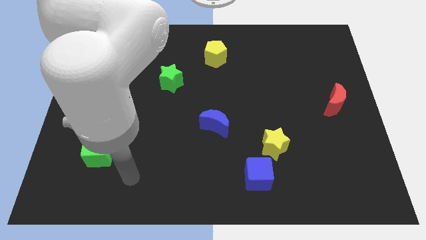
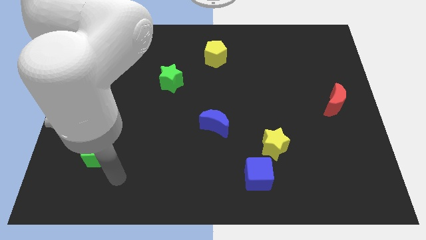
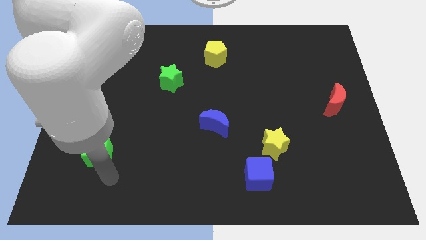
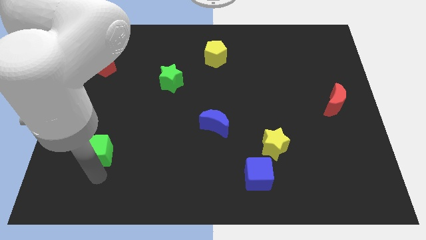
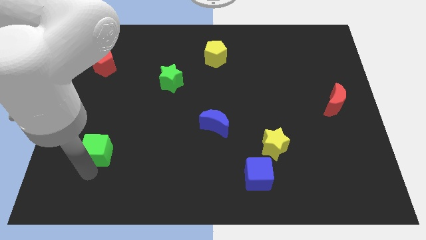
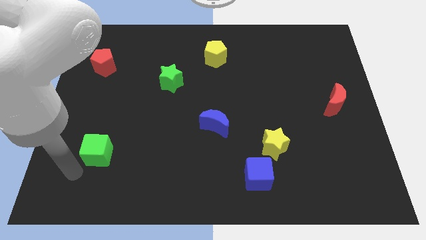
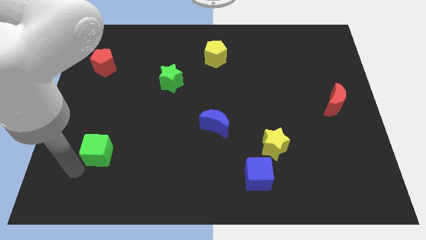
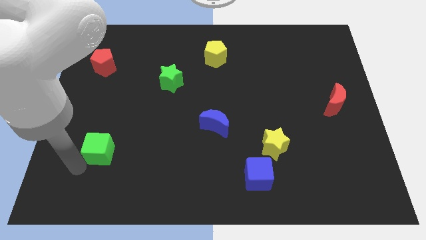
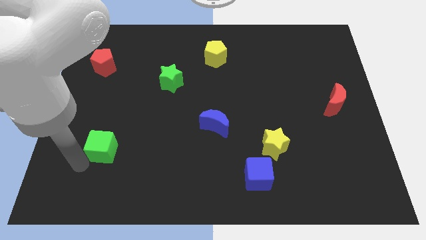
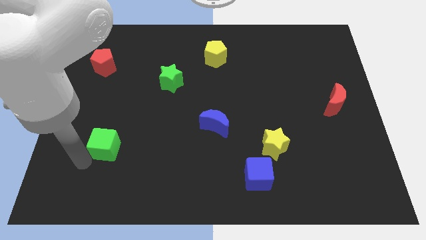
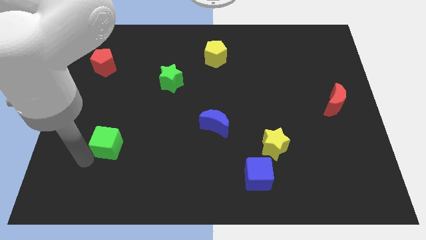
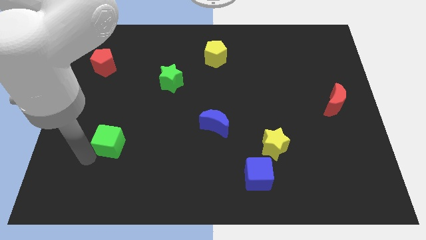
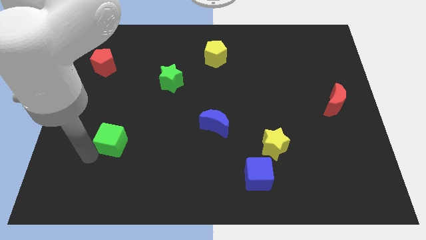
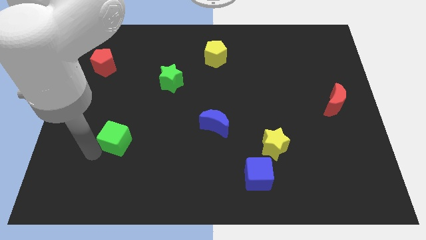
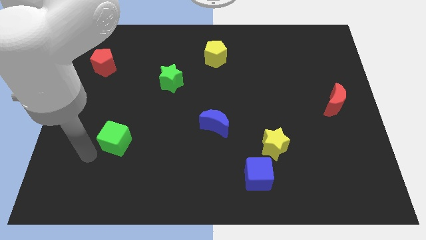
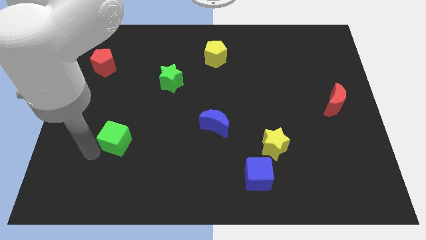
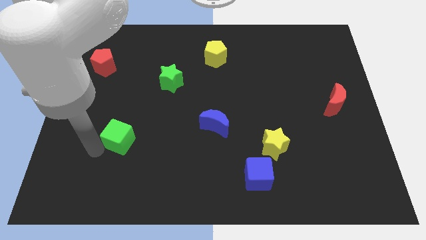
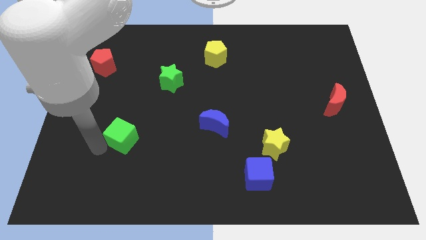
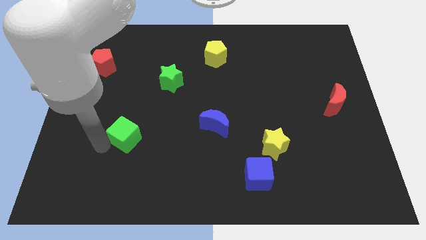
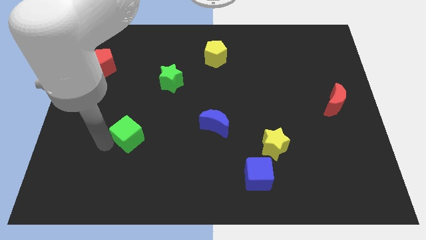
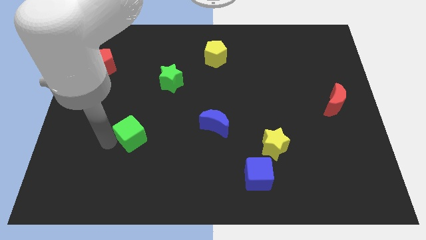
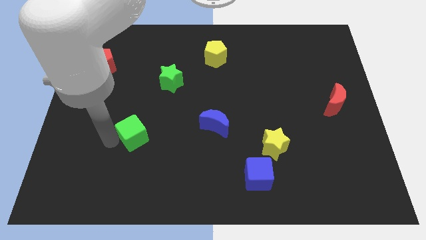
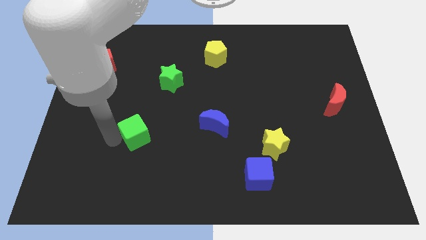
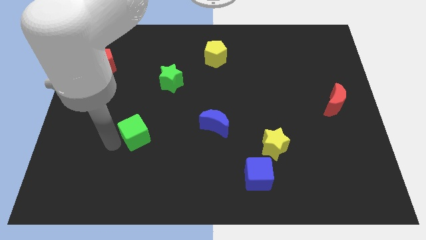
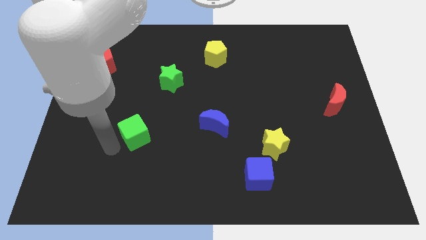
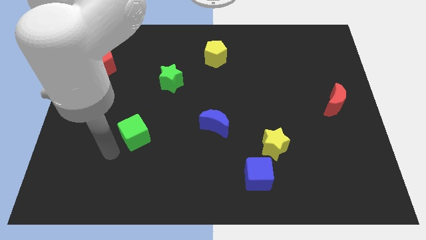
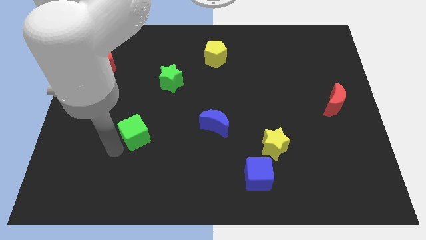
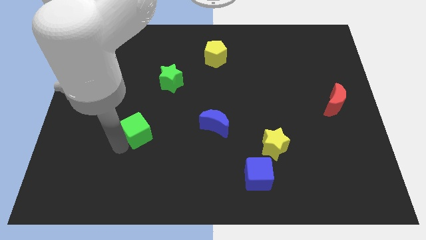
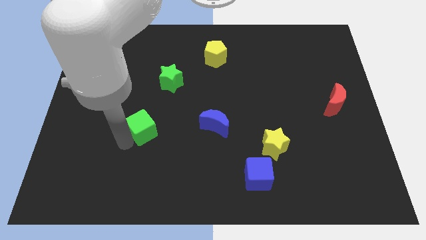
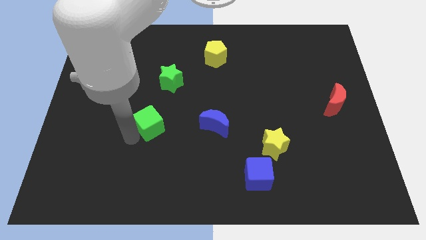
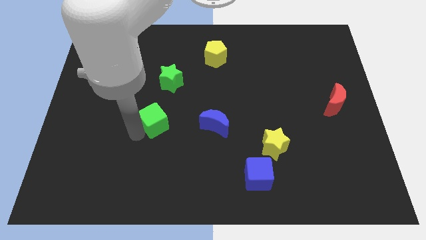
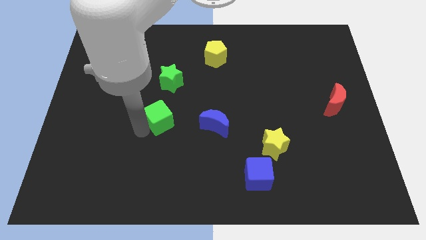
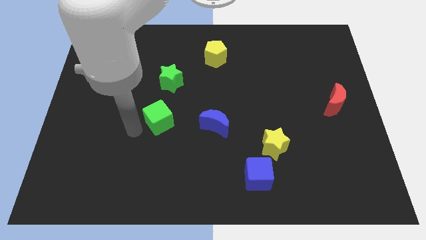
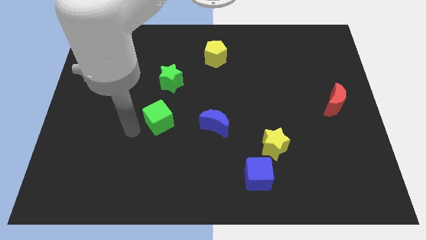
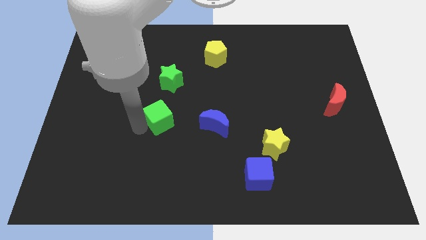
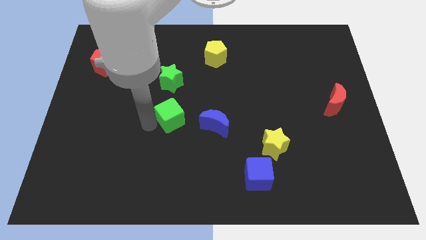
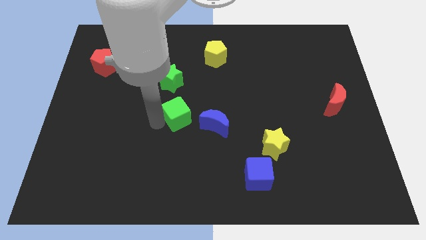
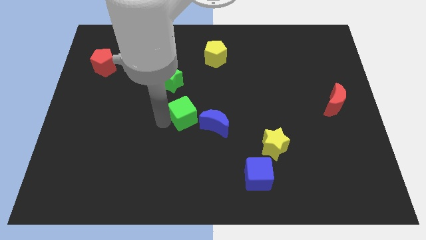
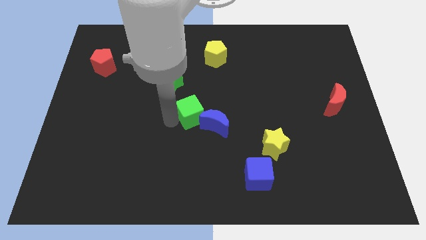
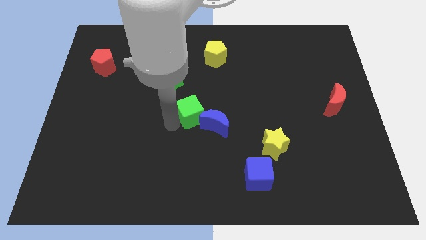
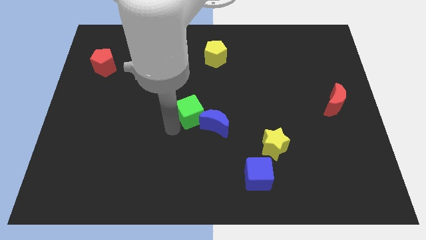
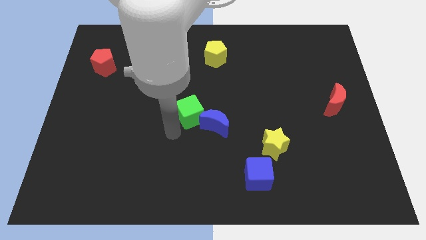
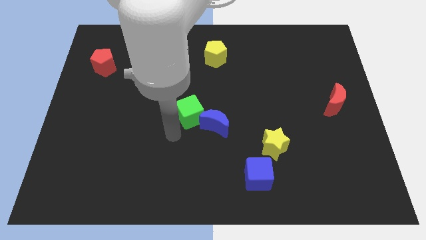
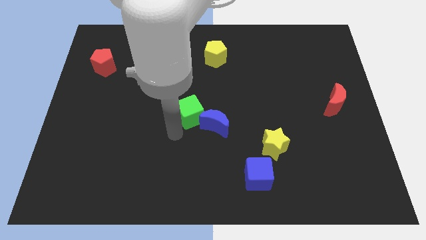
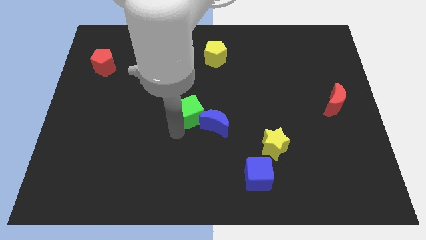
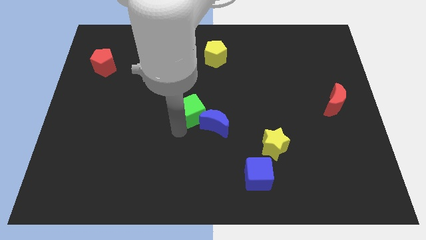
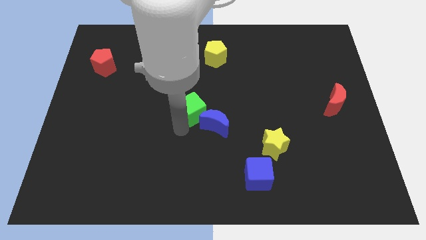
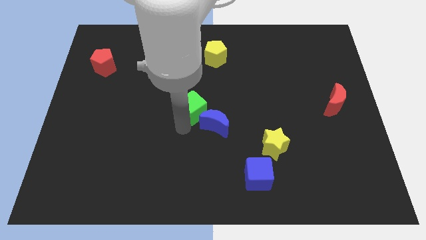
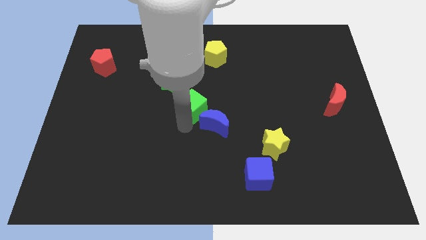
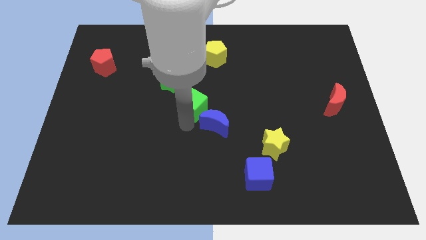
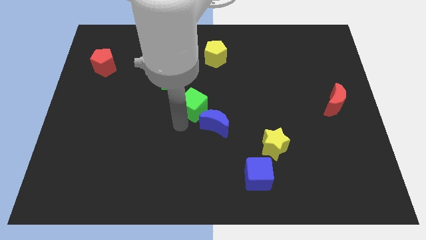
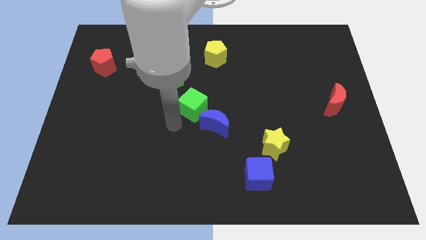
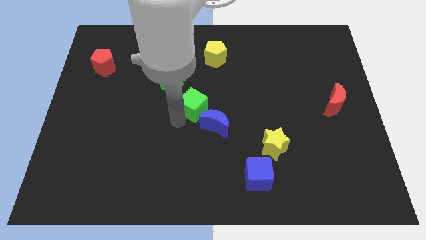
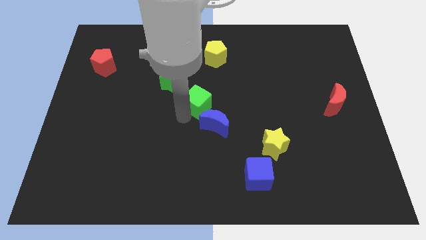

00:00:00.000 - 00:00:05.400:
move the green cube to the top of the blue moon

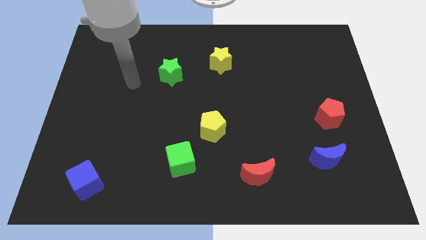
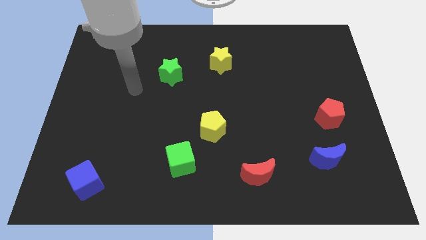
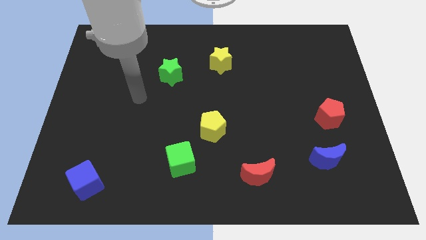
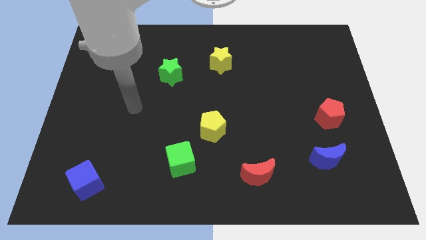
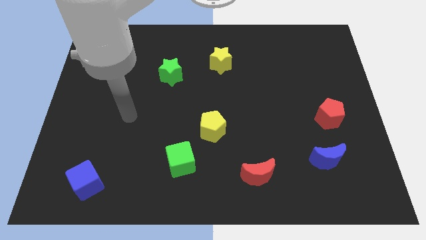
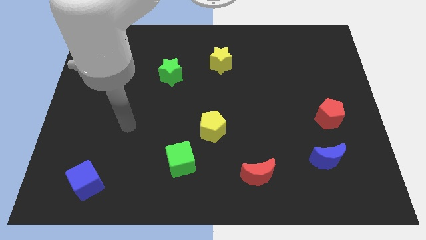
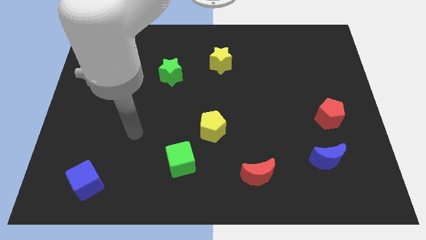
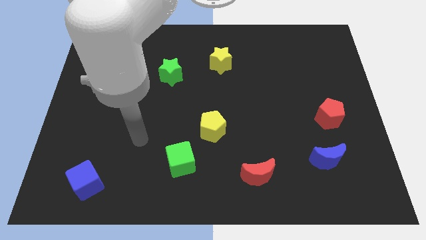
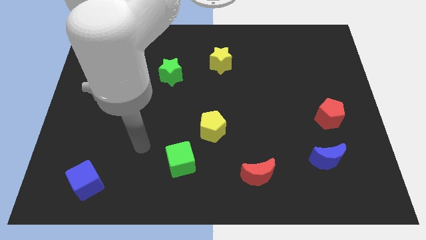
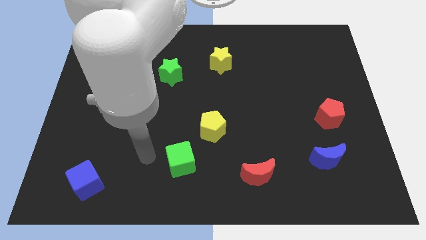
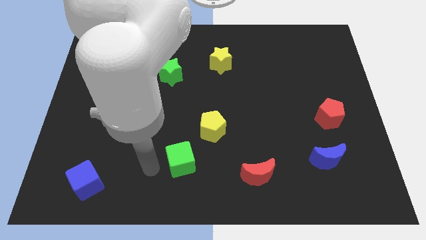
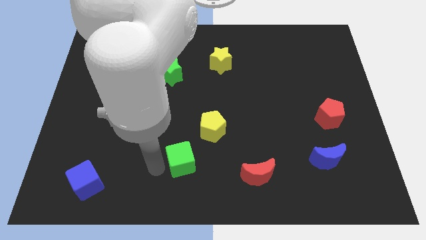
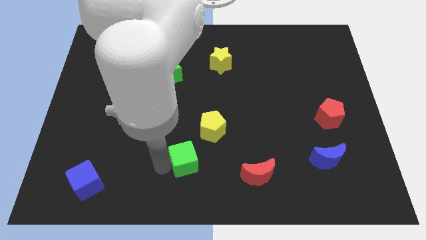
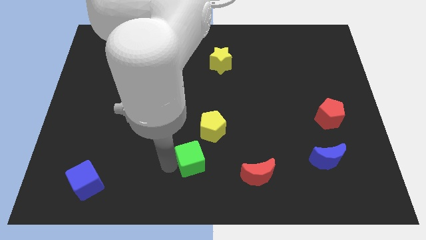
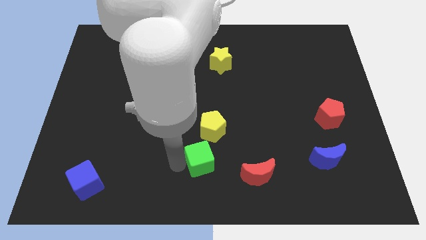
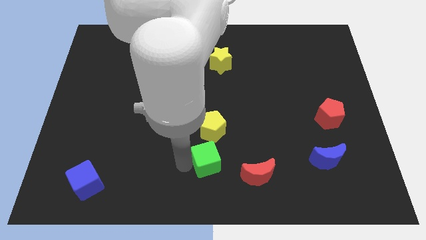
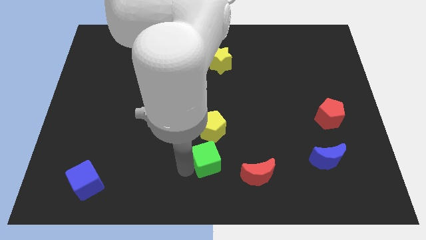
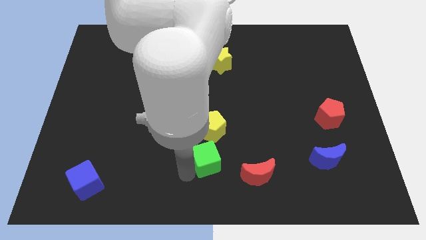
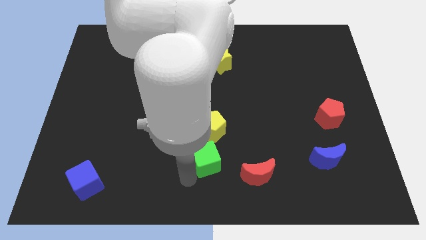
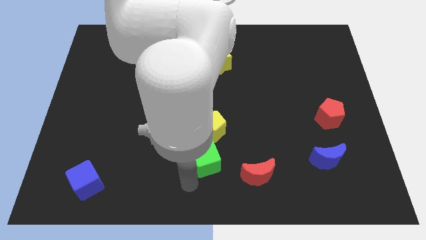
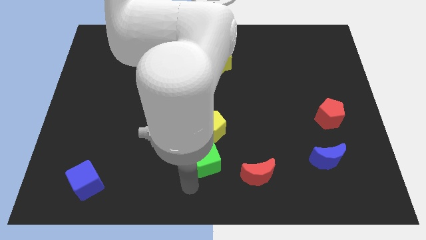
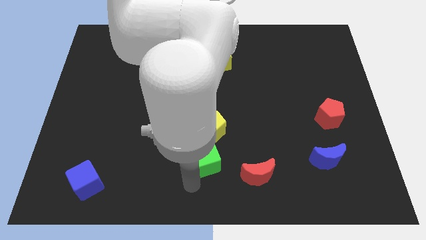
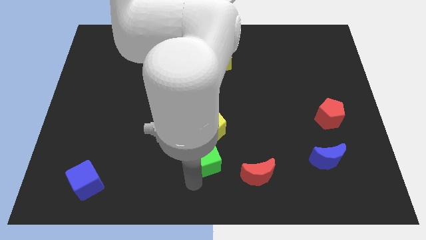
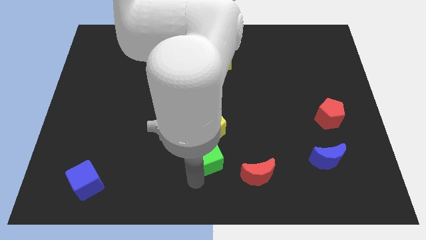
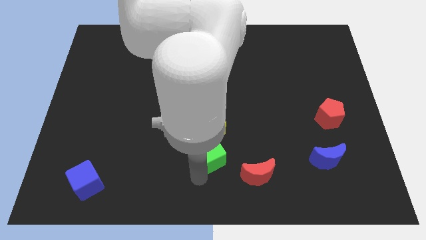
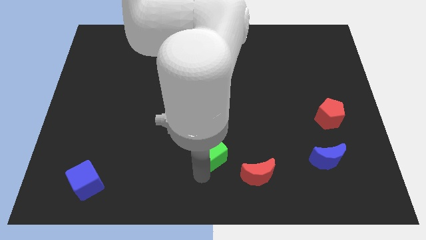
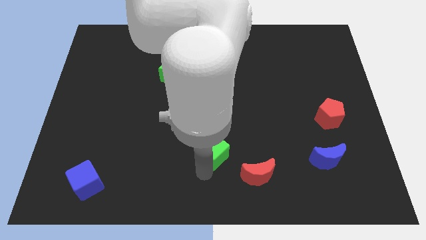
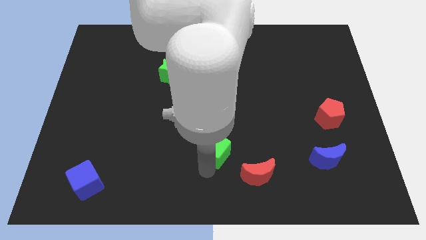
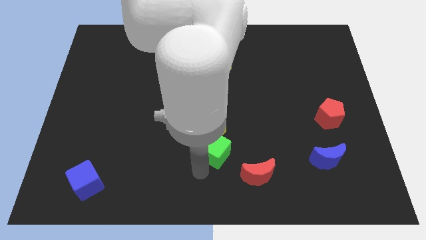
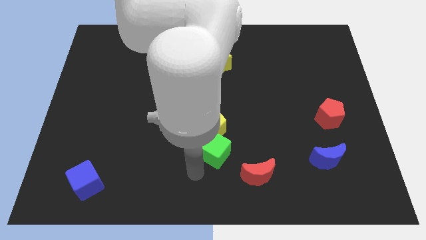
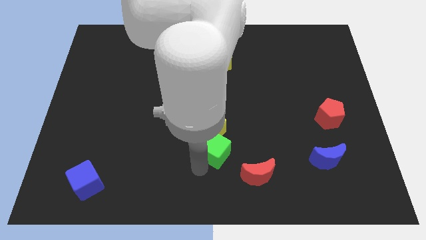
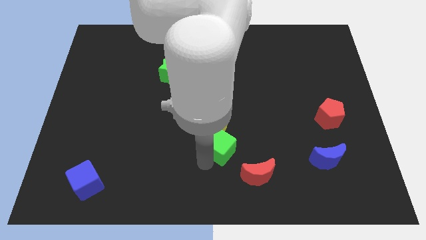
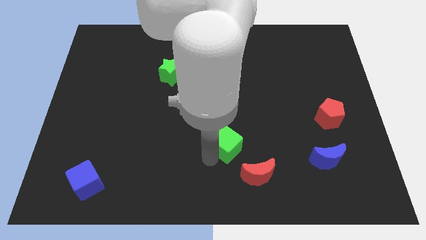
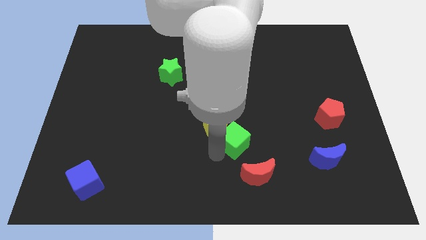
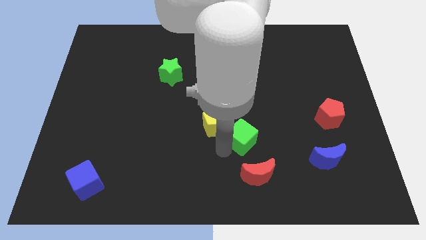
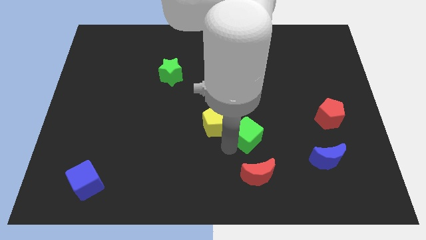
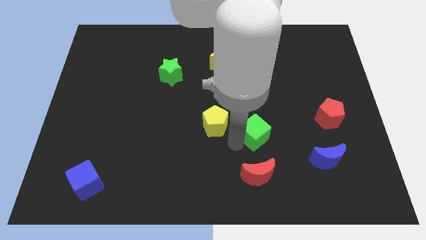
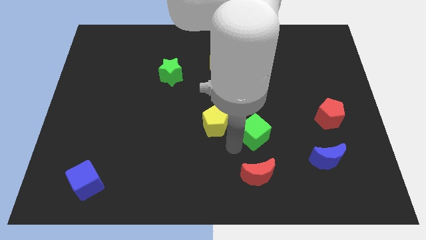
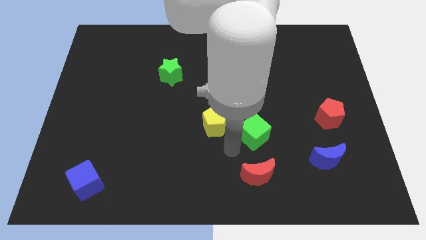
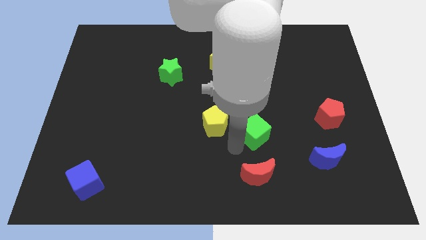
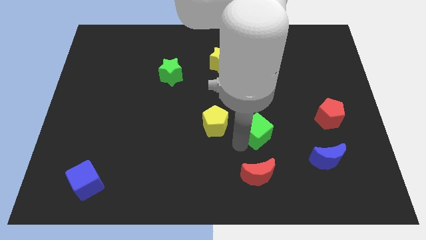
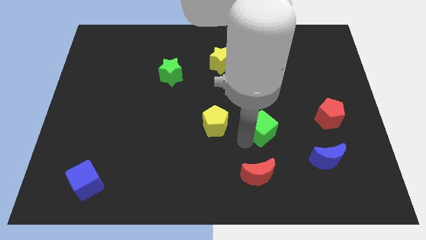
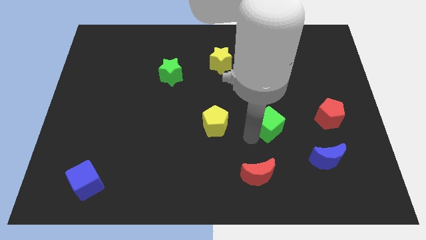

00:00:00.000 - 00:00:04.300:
put the green cube to the left side of the red pentagon
